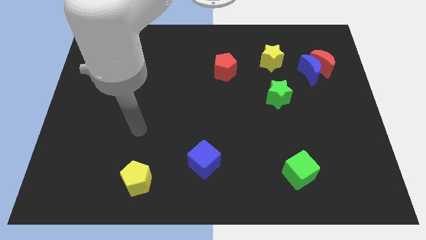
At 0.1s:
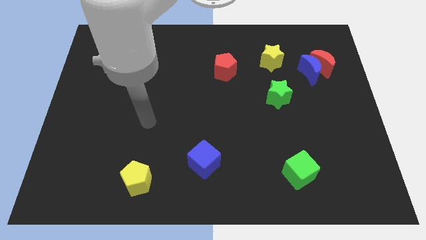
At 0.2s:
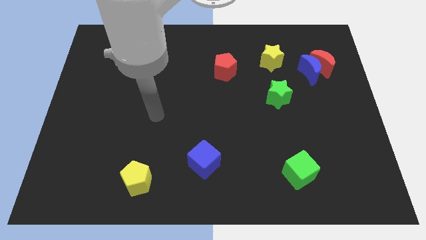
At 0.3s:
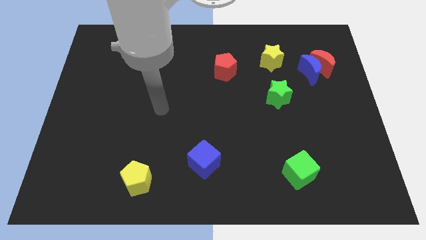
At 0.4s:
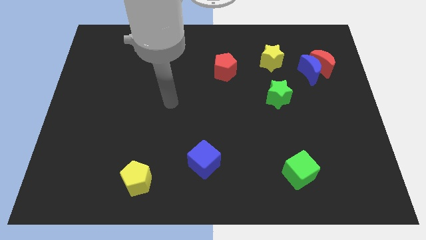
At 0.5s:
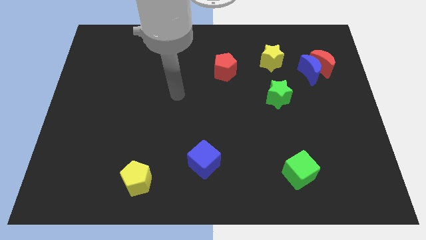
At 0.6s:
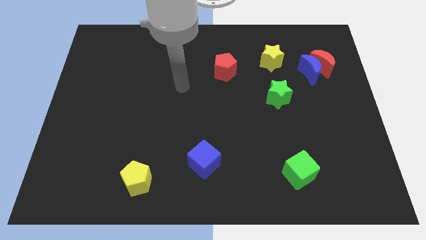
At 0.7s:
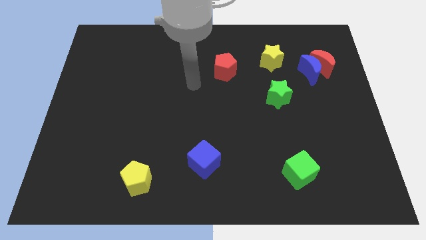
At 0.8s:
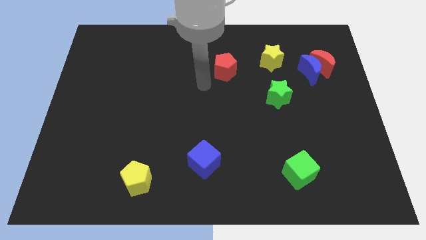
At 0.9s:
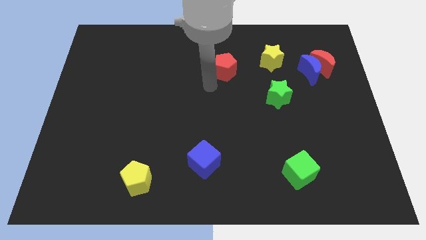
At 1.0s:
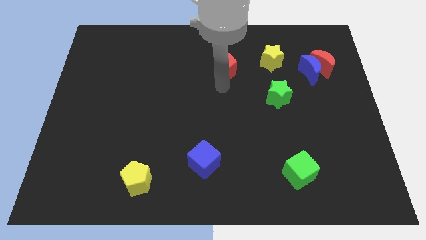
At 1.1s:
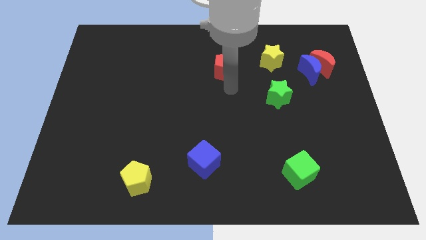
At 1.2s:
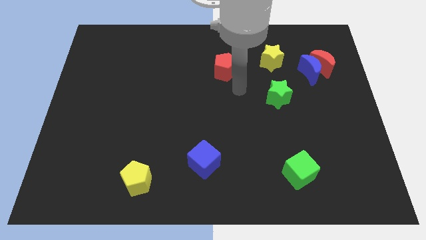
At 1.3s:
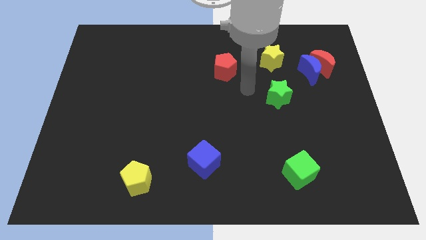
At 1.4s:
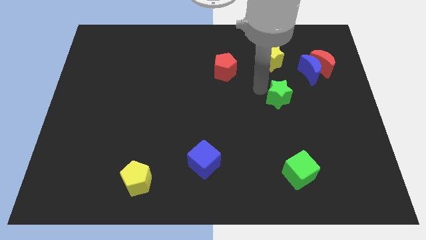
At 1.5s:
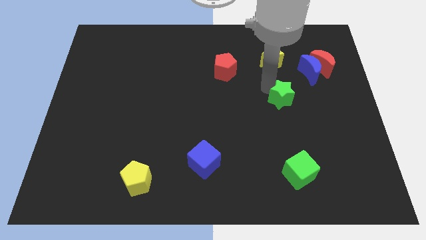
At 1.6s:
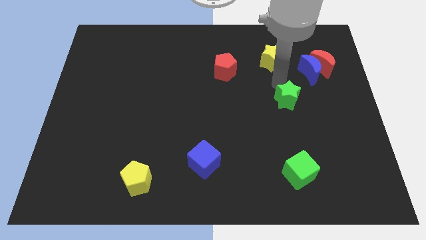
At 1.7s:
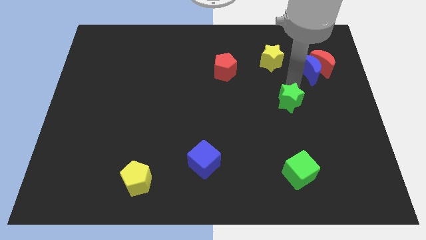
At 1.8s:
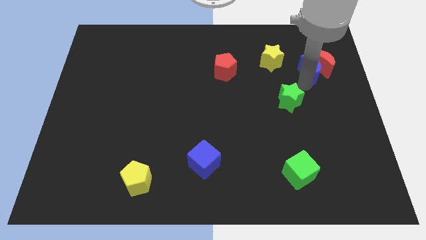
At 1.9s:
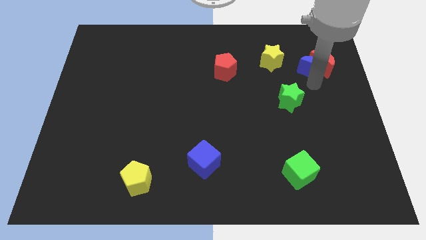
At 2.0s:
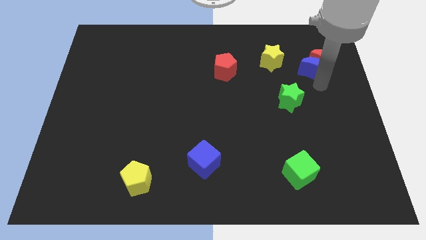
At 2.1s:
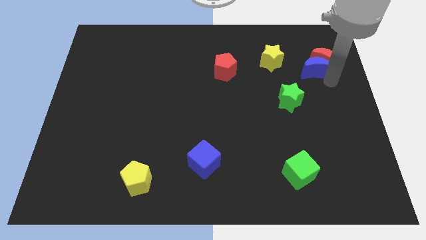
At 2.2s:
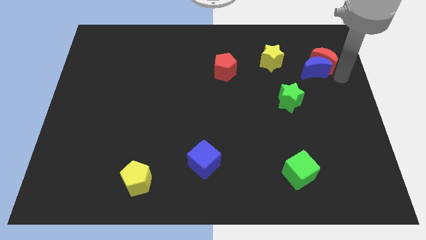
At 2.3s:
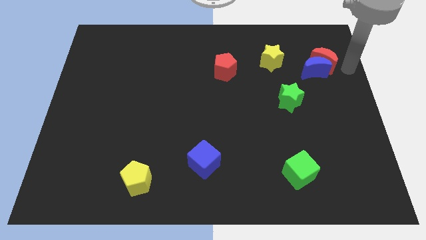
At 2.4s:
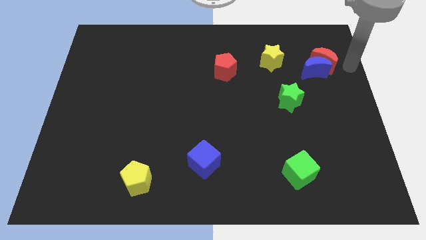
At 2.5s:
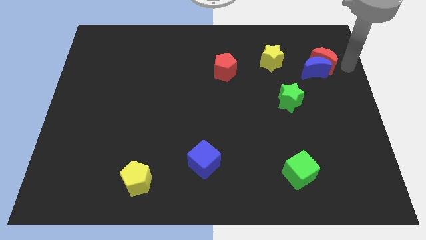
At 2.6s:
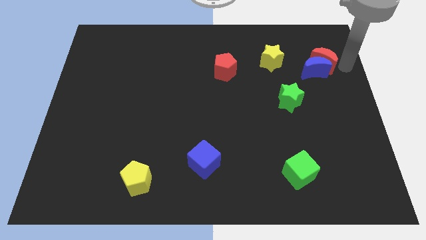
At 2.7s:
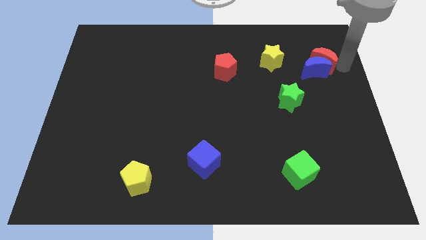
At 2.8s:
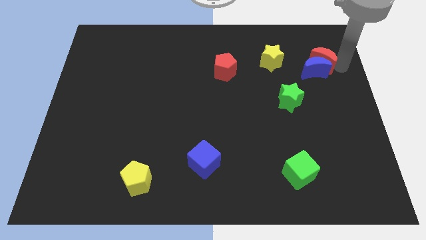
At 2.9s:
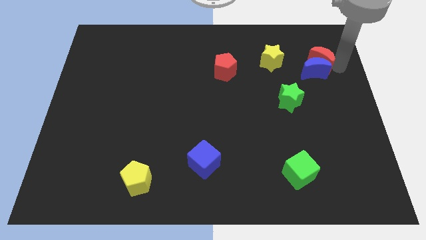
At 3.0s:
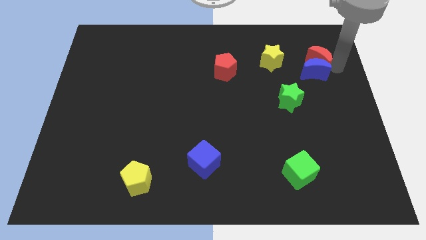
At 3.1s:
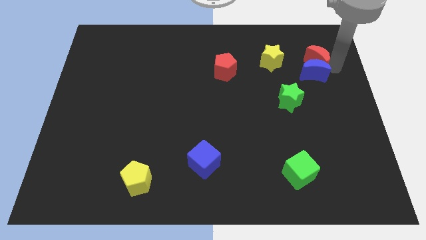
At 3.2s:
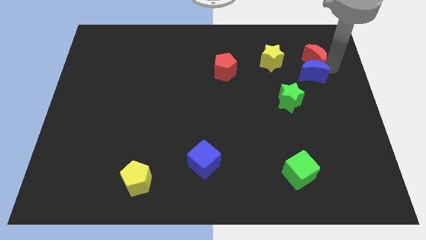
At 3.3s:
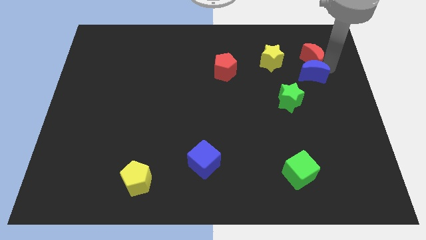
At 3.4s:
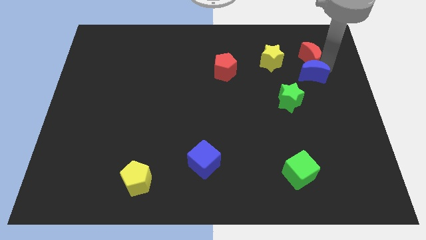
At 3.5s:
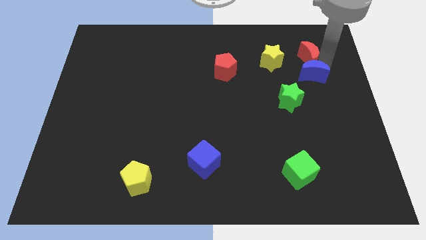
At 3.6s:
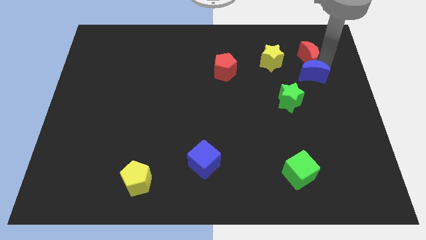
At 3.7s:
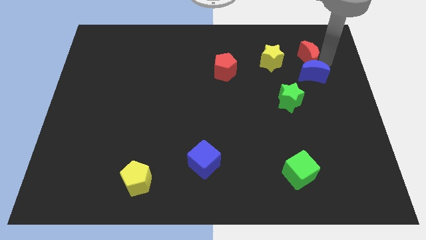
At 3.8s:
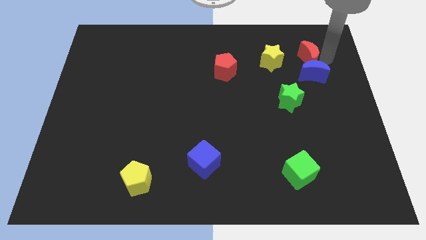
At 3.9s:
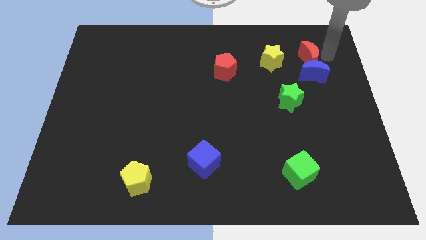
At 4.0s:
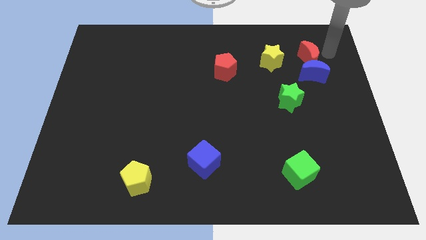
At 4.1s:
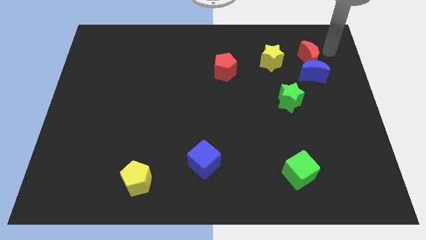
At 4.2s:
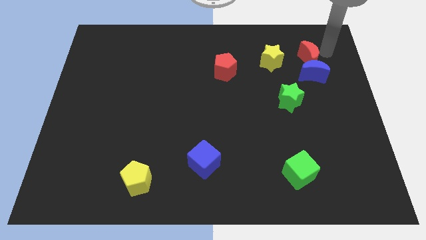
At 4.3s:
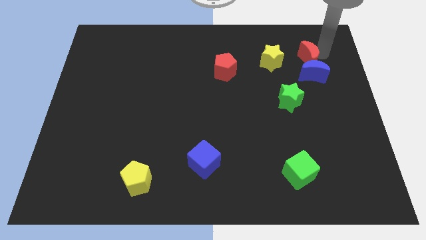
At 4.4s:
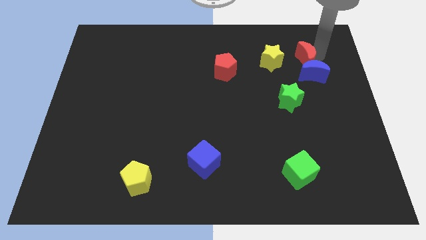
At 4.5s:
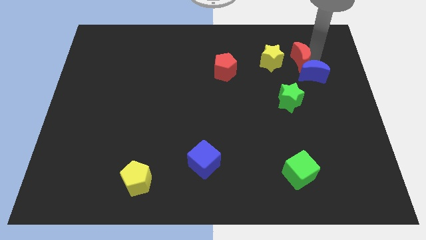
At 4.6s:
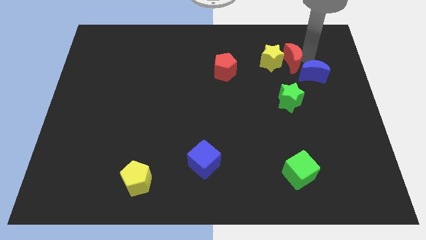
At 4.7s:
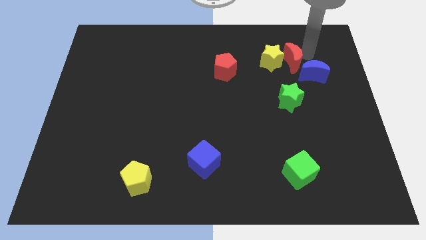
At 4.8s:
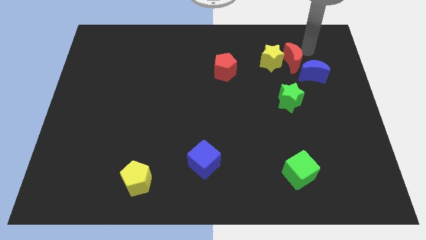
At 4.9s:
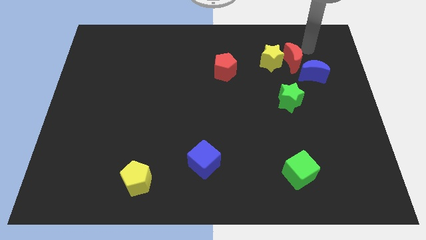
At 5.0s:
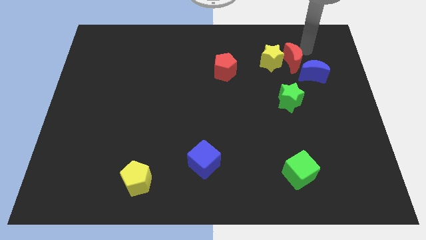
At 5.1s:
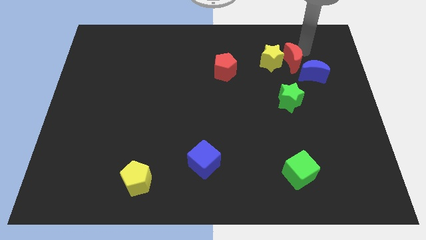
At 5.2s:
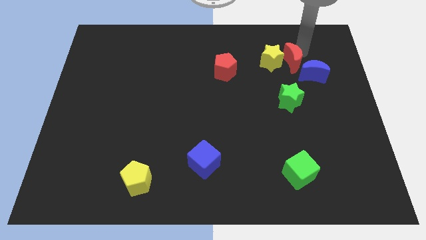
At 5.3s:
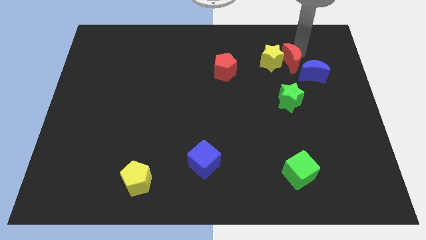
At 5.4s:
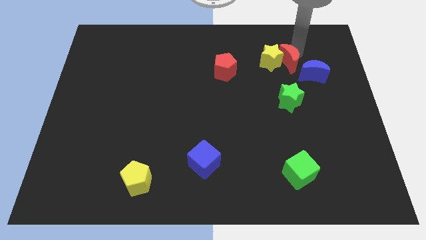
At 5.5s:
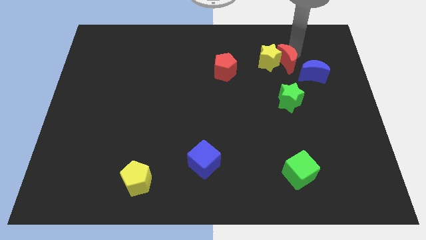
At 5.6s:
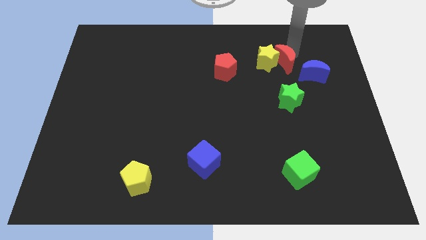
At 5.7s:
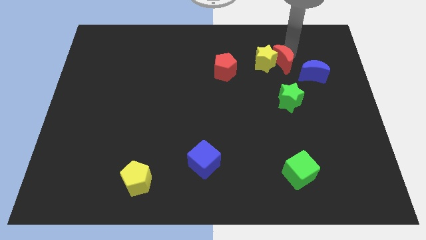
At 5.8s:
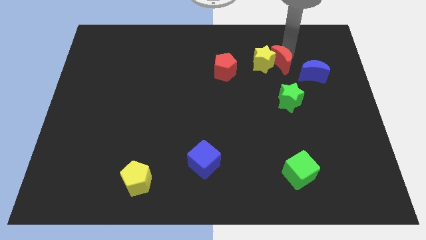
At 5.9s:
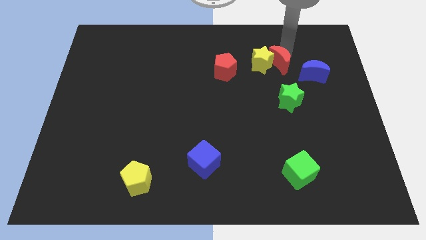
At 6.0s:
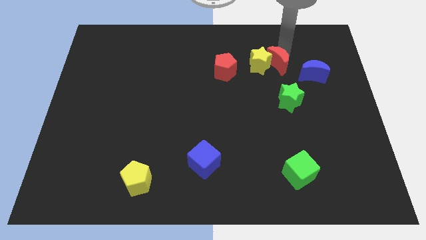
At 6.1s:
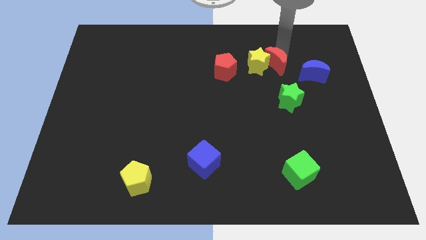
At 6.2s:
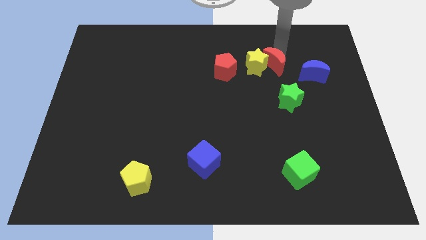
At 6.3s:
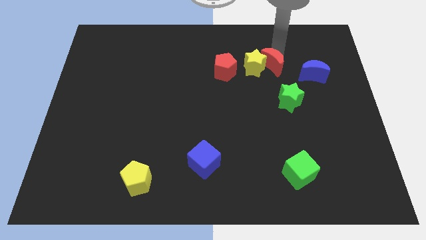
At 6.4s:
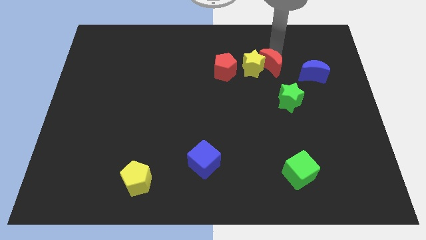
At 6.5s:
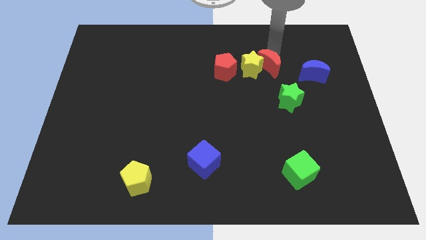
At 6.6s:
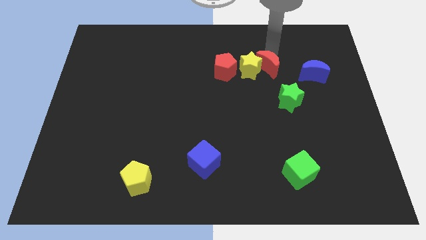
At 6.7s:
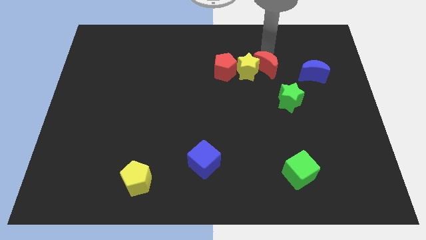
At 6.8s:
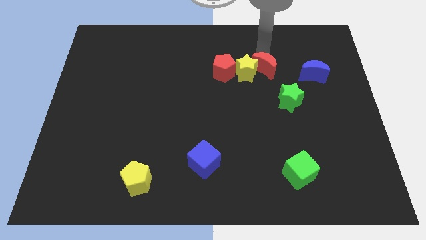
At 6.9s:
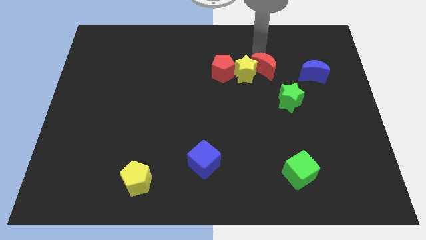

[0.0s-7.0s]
slide the red moon diagonally up and to the left of the green star

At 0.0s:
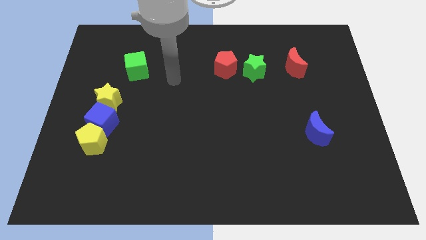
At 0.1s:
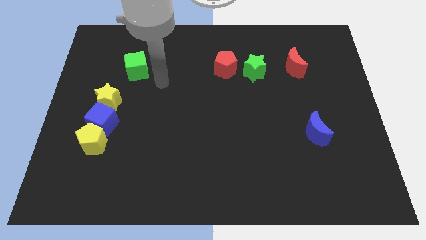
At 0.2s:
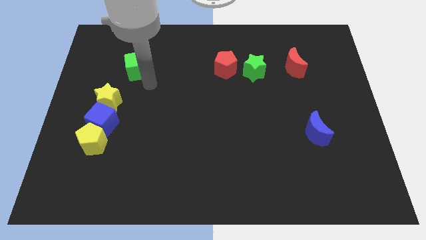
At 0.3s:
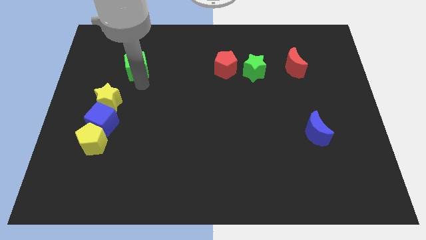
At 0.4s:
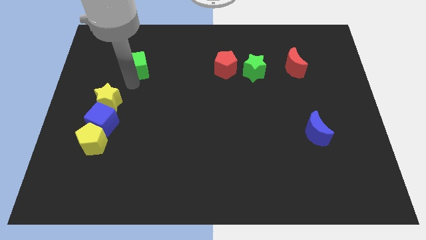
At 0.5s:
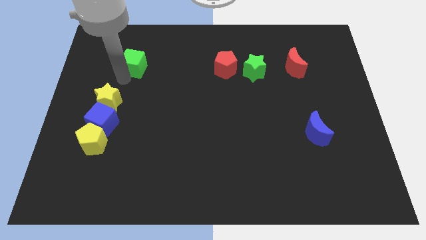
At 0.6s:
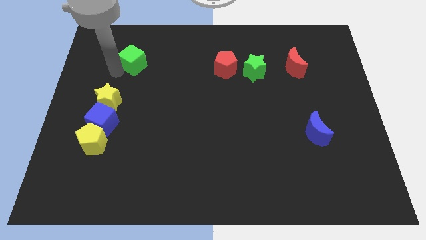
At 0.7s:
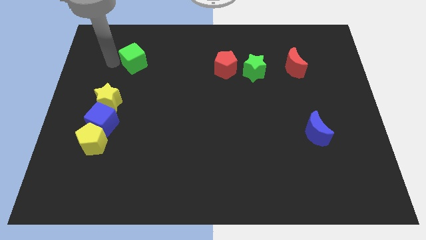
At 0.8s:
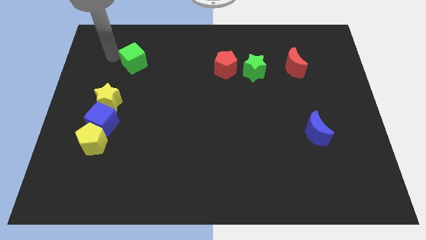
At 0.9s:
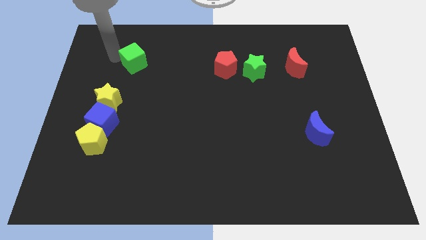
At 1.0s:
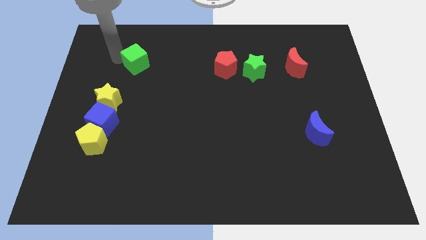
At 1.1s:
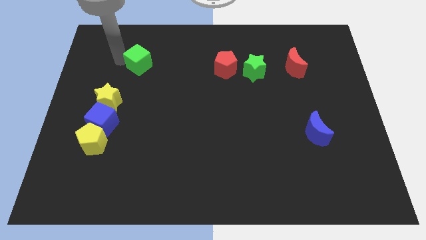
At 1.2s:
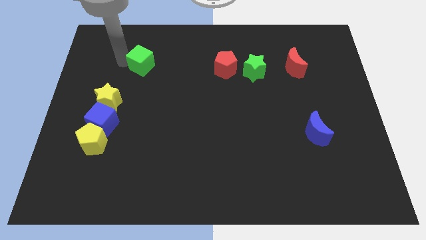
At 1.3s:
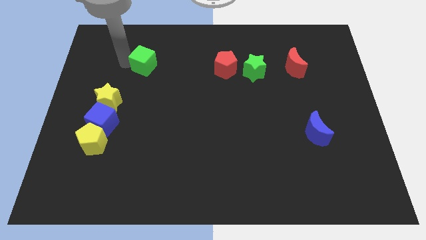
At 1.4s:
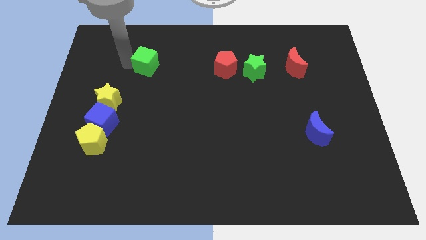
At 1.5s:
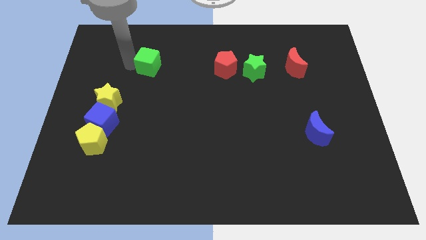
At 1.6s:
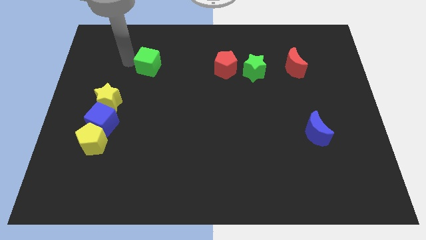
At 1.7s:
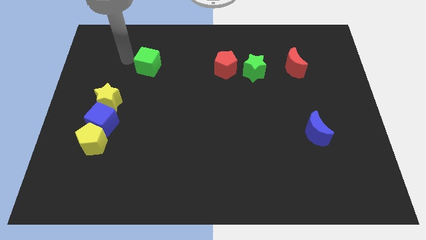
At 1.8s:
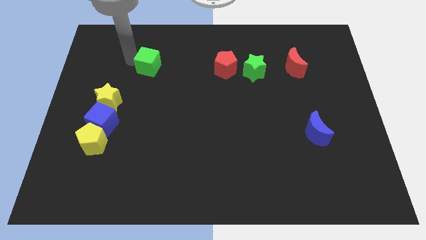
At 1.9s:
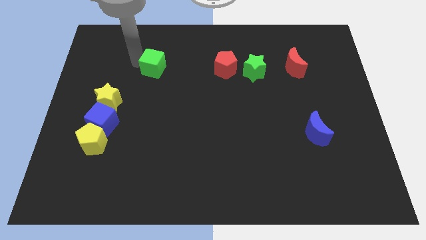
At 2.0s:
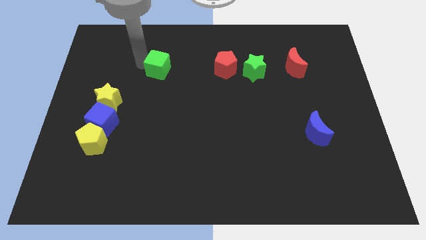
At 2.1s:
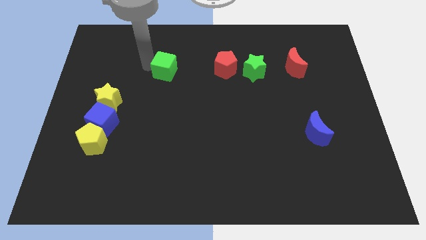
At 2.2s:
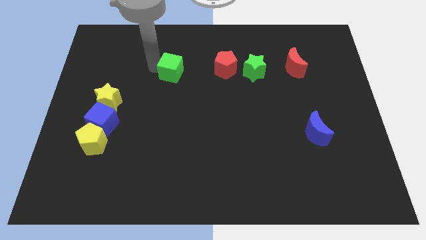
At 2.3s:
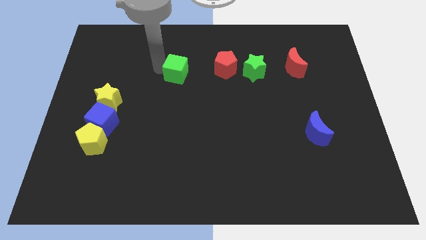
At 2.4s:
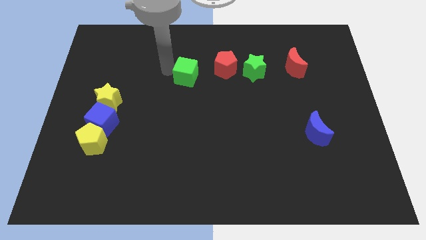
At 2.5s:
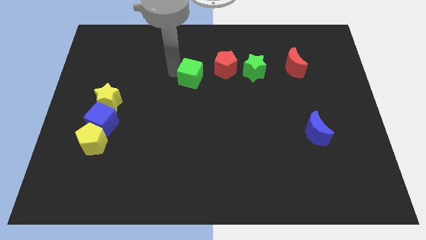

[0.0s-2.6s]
put the green cube to the bottom left of the red pentagon
